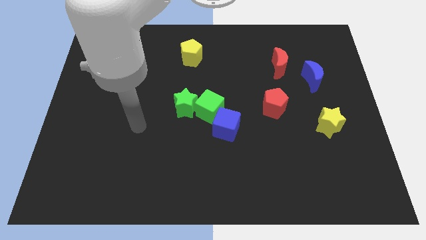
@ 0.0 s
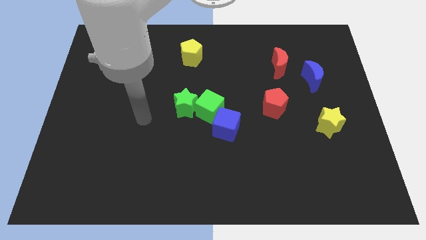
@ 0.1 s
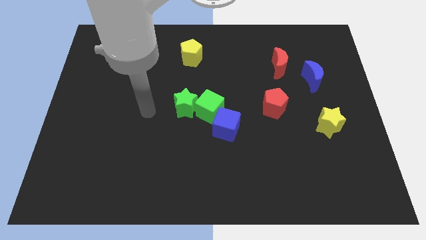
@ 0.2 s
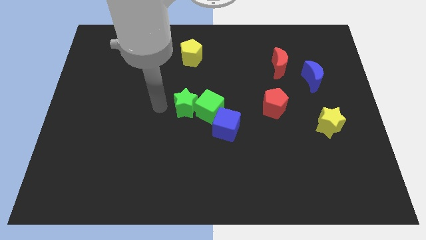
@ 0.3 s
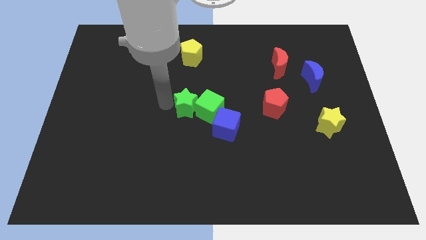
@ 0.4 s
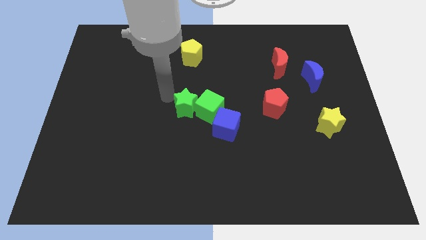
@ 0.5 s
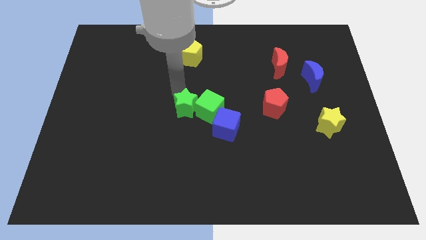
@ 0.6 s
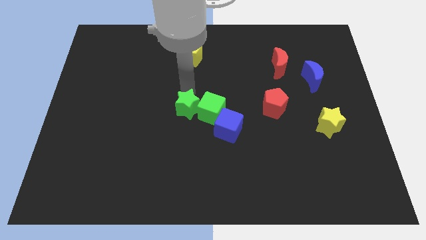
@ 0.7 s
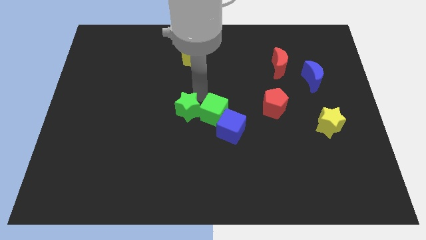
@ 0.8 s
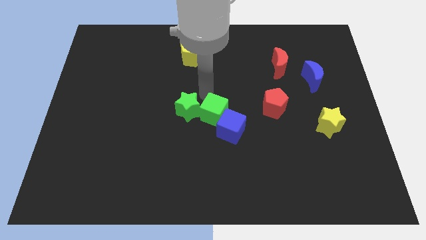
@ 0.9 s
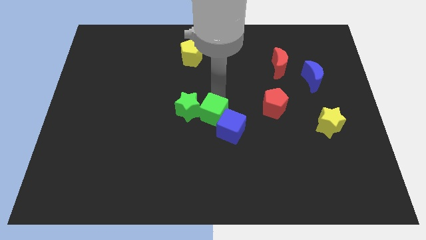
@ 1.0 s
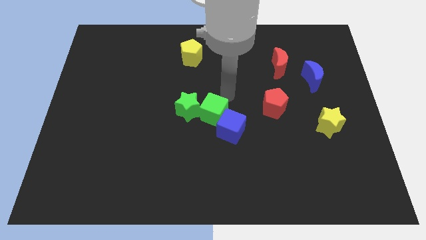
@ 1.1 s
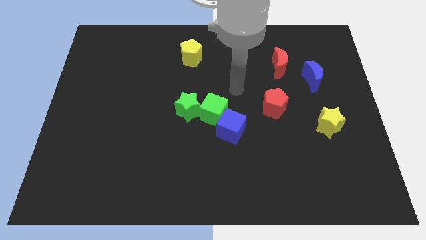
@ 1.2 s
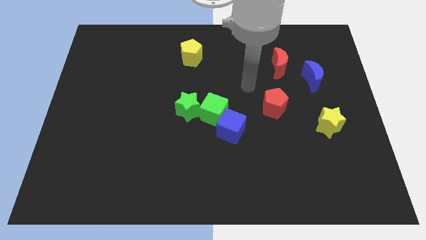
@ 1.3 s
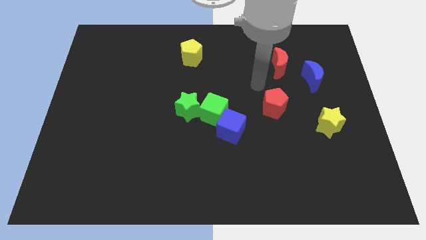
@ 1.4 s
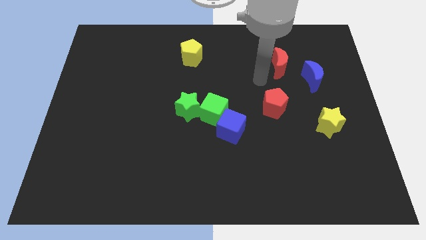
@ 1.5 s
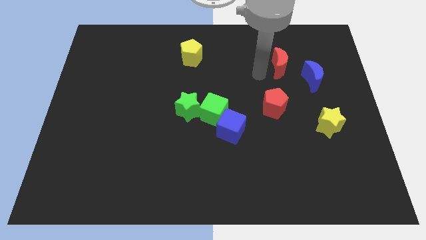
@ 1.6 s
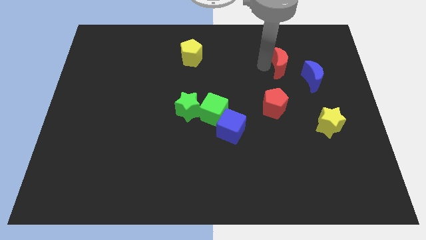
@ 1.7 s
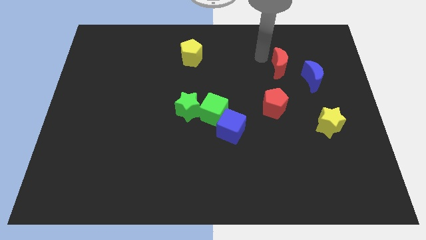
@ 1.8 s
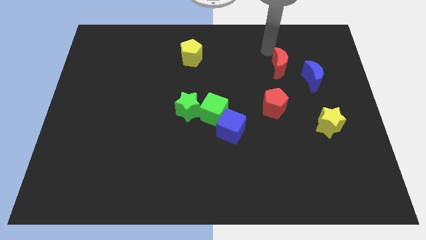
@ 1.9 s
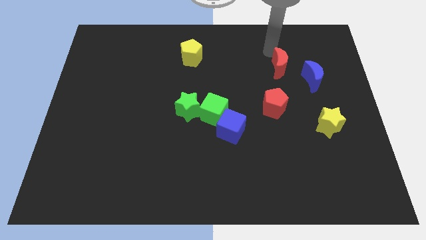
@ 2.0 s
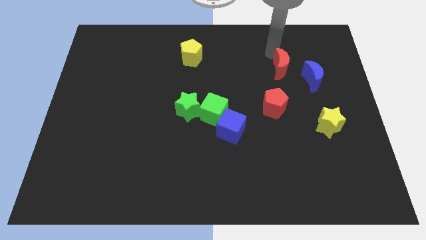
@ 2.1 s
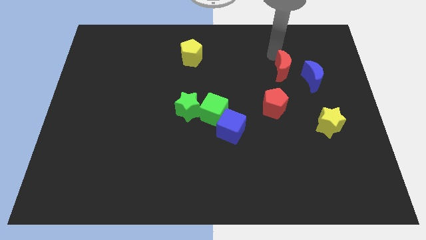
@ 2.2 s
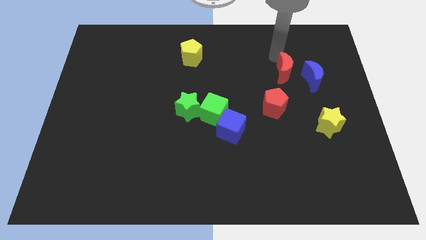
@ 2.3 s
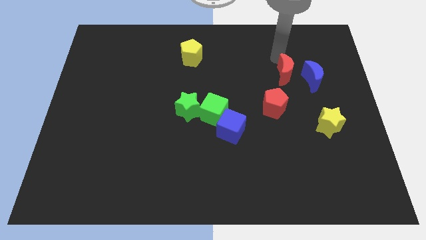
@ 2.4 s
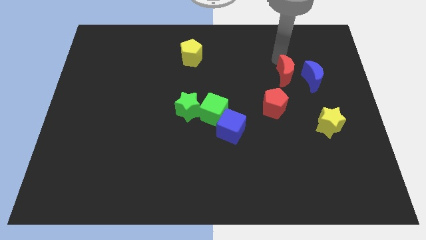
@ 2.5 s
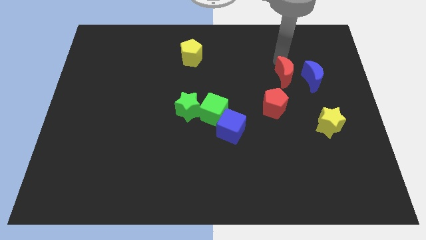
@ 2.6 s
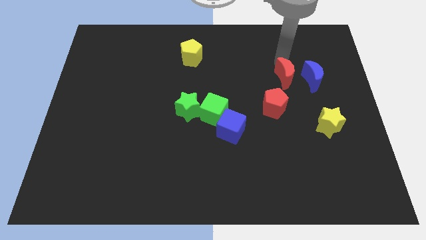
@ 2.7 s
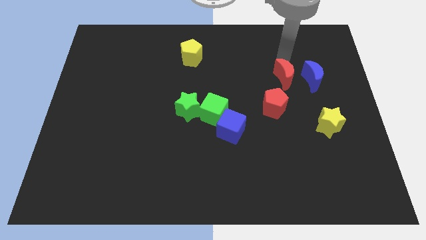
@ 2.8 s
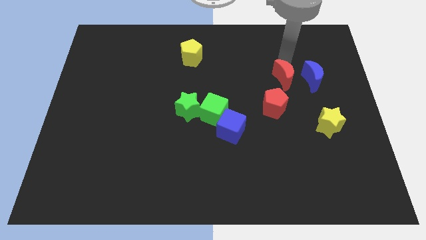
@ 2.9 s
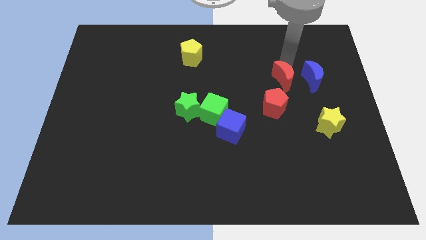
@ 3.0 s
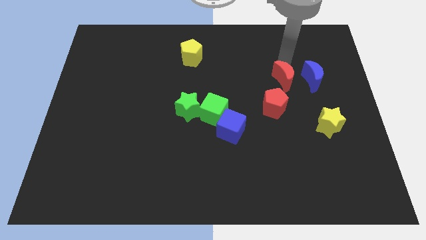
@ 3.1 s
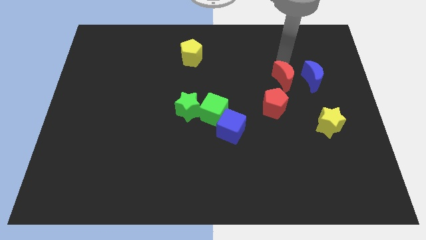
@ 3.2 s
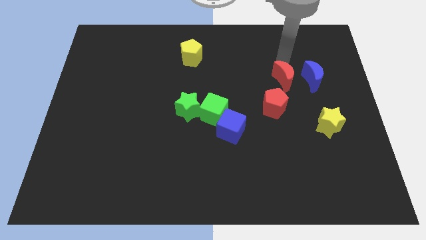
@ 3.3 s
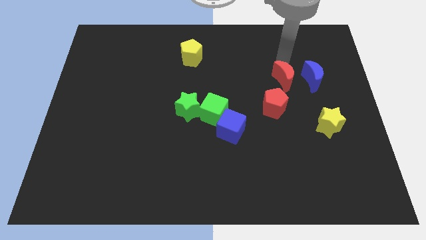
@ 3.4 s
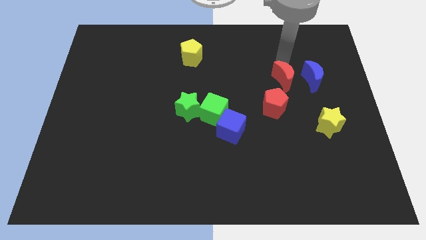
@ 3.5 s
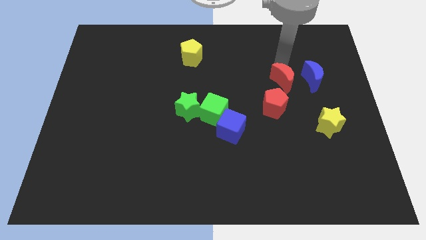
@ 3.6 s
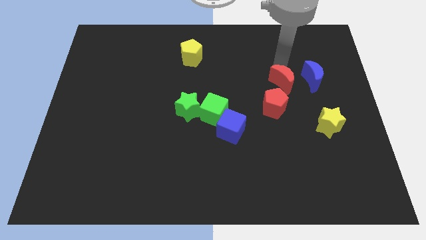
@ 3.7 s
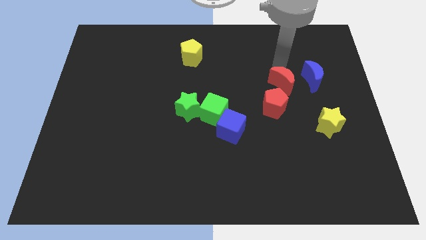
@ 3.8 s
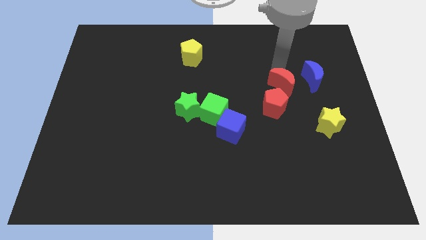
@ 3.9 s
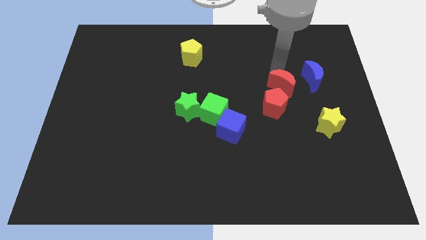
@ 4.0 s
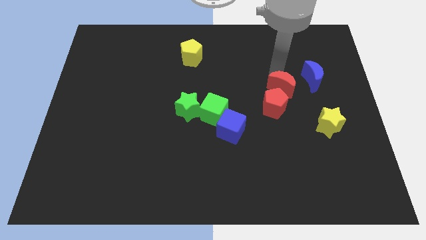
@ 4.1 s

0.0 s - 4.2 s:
move the red moon down somewhat

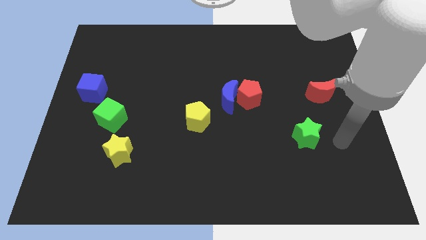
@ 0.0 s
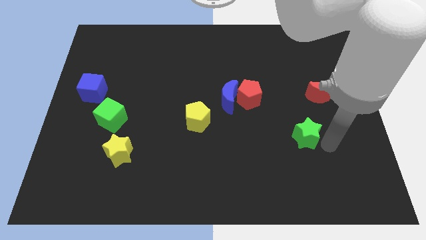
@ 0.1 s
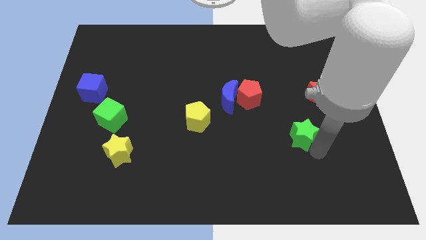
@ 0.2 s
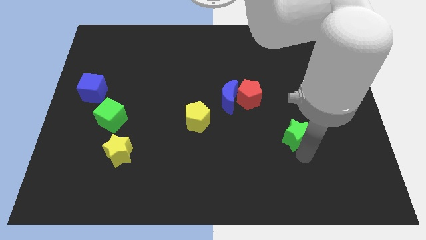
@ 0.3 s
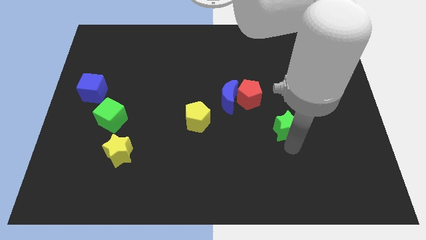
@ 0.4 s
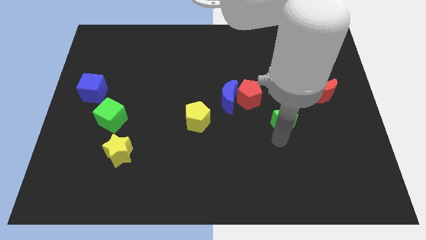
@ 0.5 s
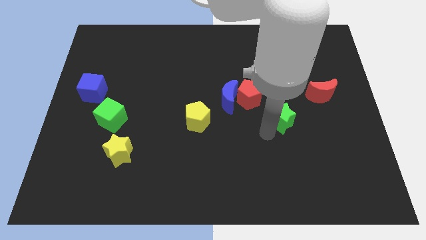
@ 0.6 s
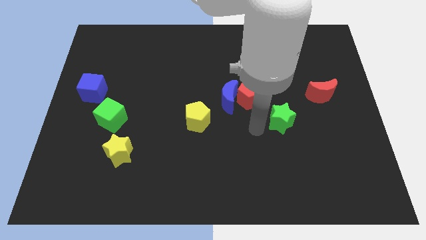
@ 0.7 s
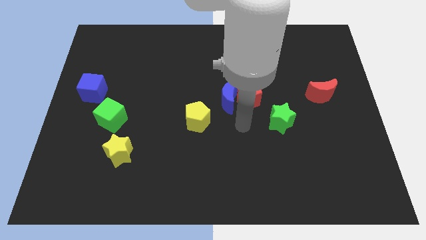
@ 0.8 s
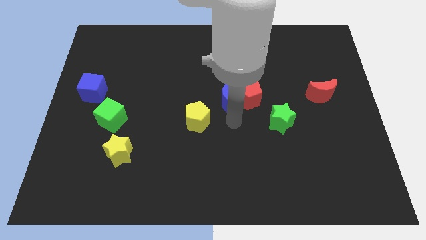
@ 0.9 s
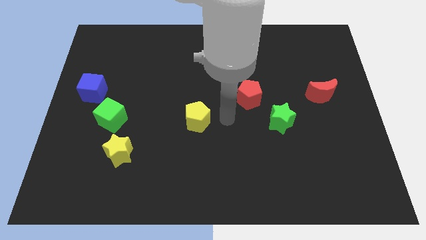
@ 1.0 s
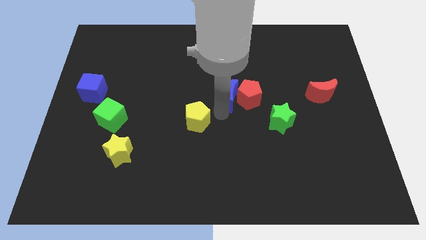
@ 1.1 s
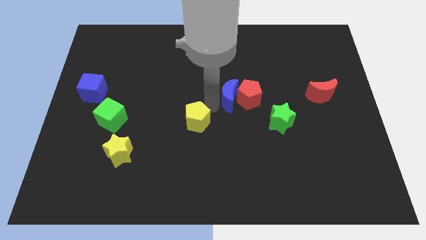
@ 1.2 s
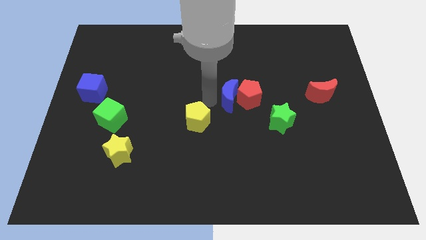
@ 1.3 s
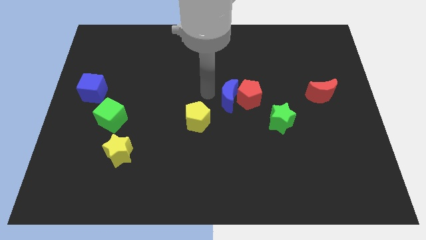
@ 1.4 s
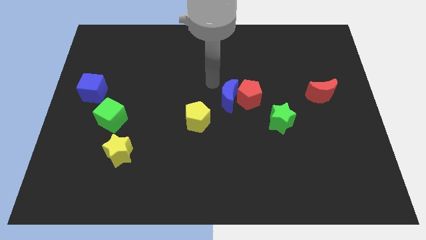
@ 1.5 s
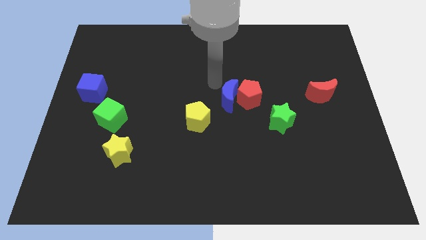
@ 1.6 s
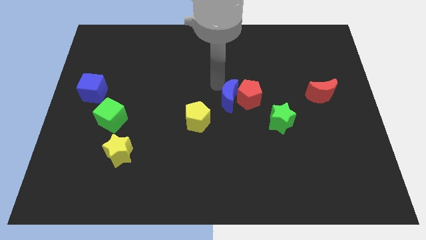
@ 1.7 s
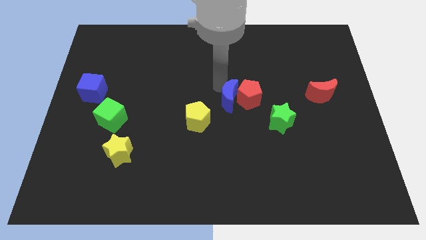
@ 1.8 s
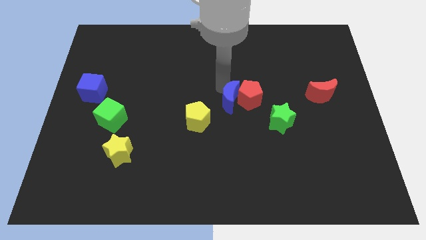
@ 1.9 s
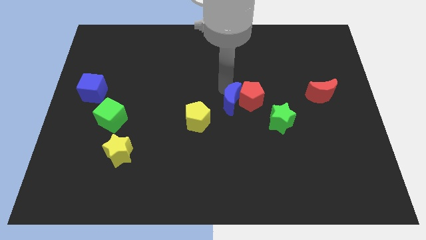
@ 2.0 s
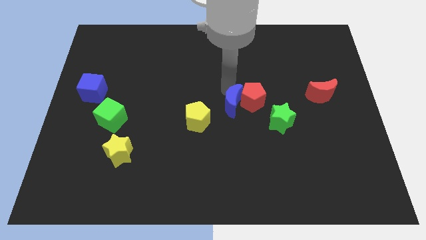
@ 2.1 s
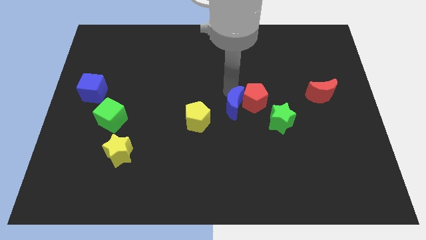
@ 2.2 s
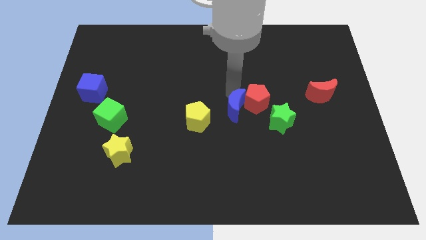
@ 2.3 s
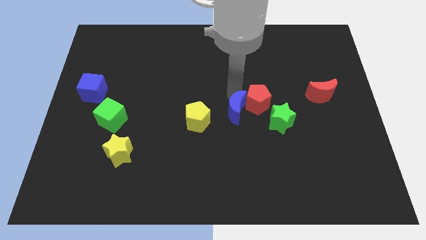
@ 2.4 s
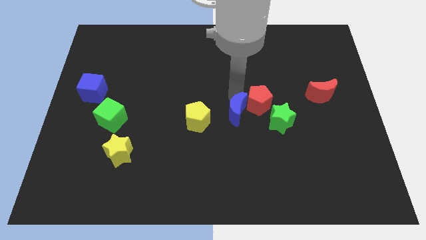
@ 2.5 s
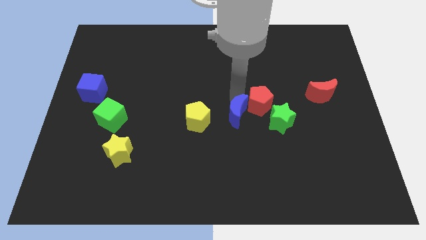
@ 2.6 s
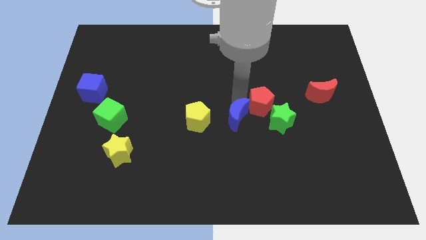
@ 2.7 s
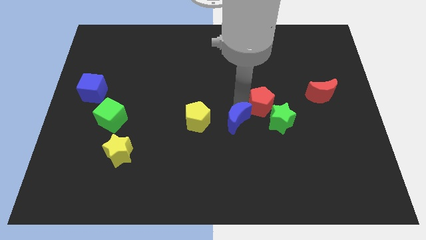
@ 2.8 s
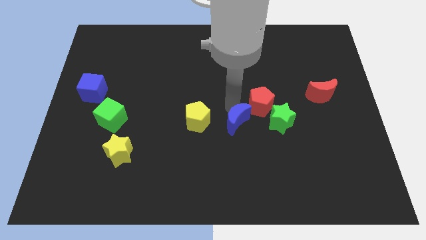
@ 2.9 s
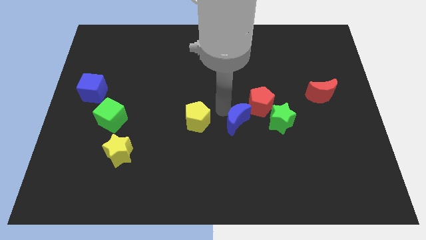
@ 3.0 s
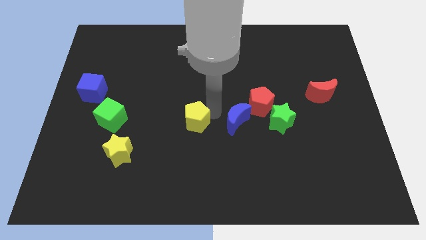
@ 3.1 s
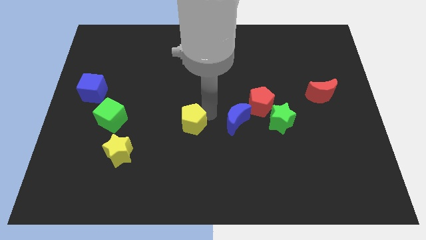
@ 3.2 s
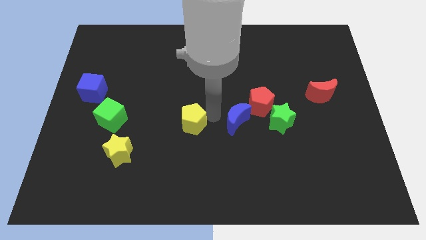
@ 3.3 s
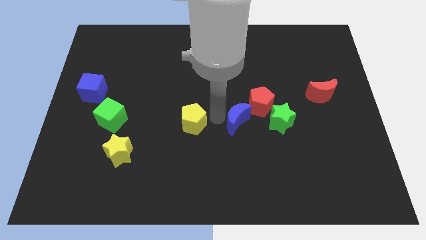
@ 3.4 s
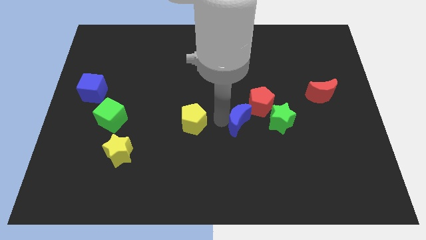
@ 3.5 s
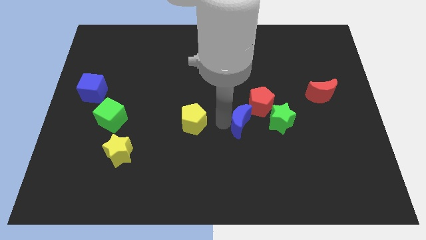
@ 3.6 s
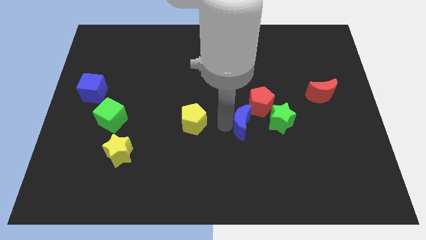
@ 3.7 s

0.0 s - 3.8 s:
move the blue moon downwards and then right a little
